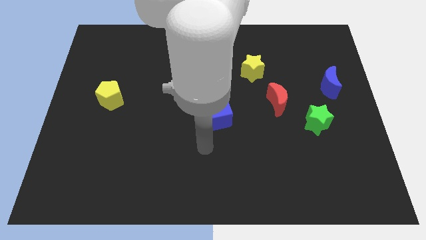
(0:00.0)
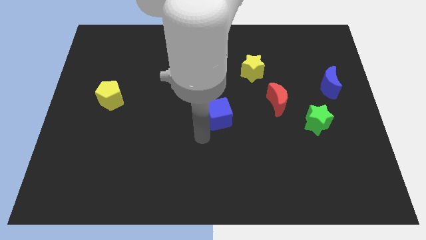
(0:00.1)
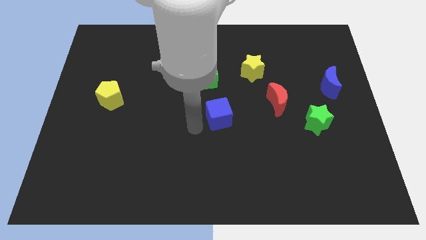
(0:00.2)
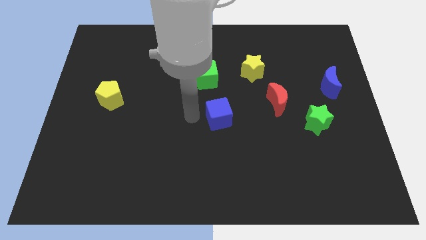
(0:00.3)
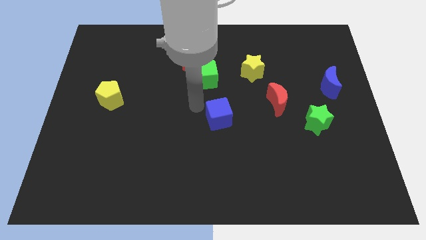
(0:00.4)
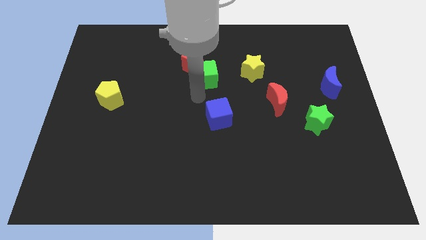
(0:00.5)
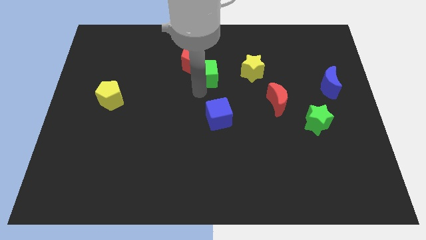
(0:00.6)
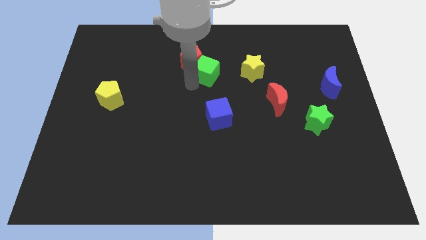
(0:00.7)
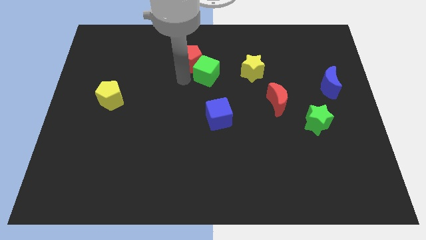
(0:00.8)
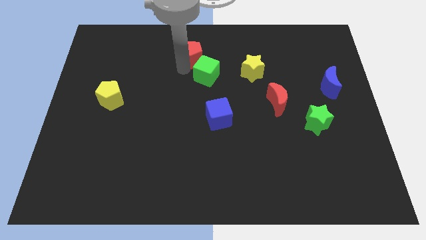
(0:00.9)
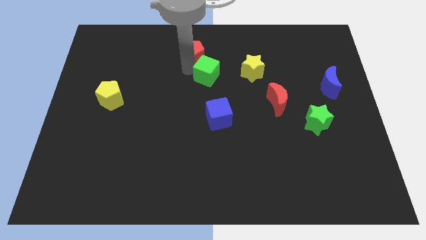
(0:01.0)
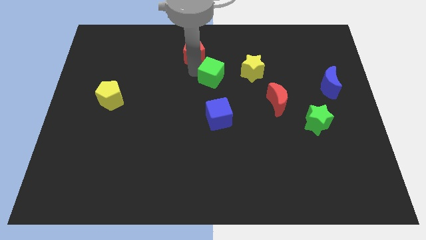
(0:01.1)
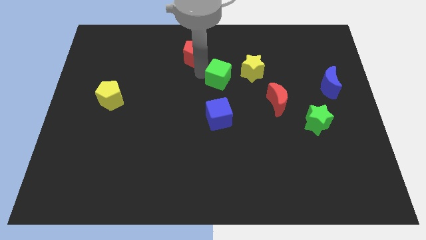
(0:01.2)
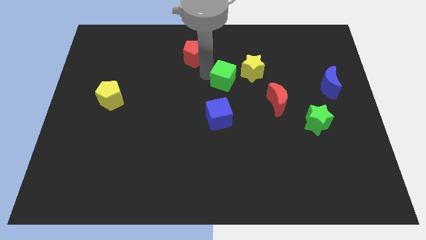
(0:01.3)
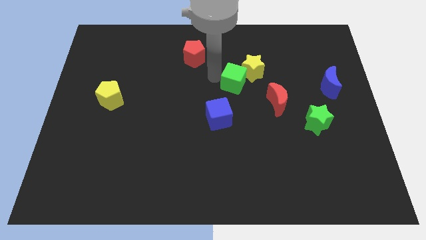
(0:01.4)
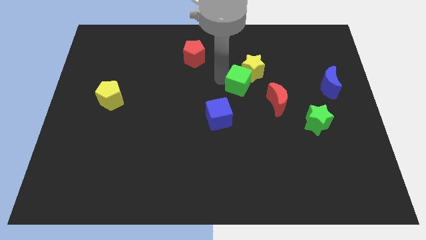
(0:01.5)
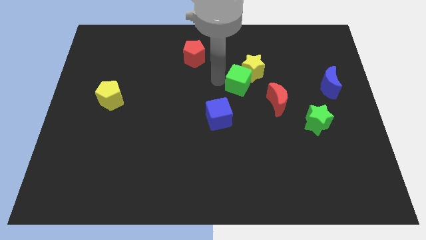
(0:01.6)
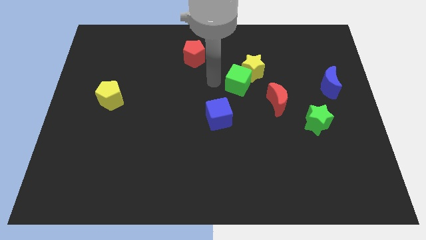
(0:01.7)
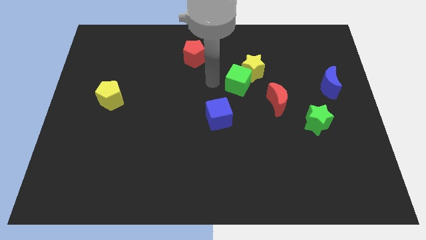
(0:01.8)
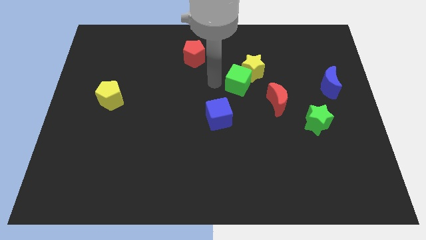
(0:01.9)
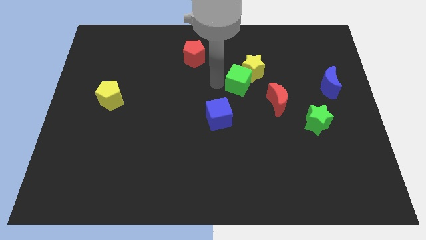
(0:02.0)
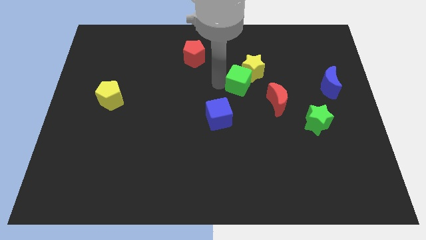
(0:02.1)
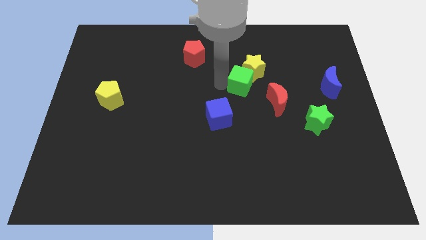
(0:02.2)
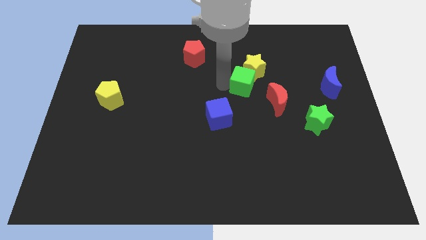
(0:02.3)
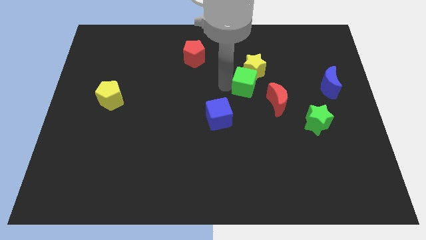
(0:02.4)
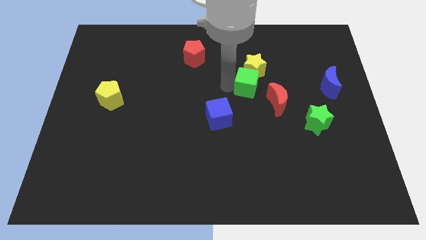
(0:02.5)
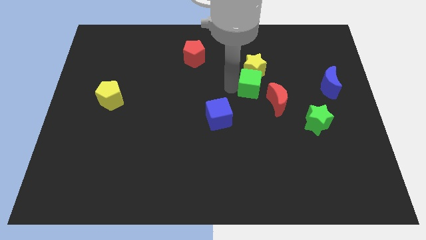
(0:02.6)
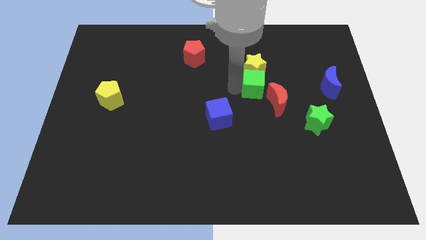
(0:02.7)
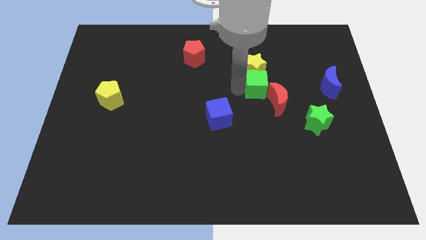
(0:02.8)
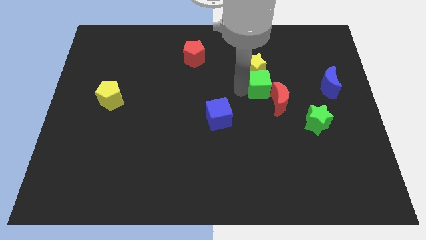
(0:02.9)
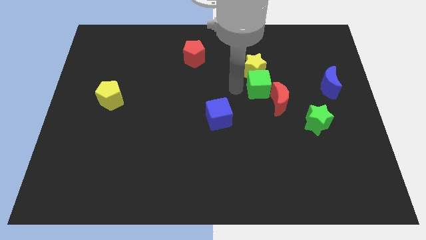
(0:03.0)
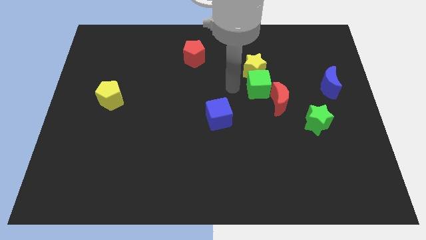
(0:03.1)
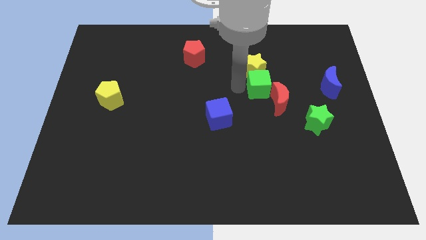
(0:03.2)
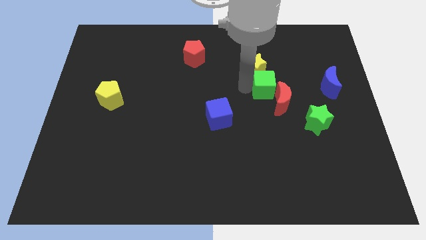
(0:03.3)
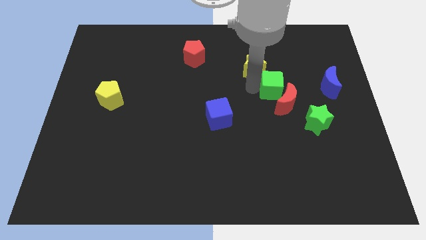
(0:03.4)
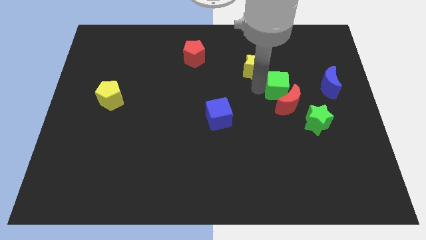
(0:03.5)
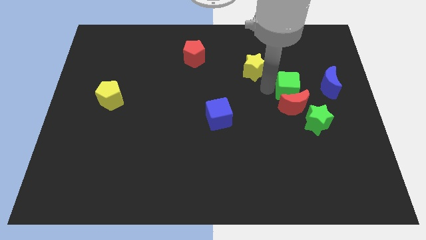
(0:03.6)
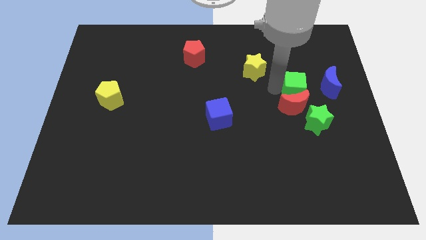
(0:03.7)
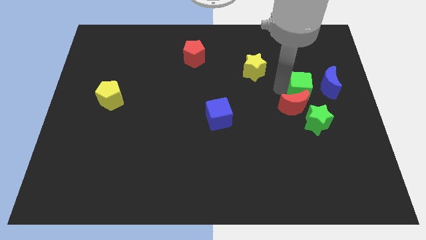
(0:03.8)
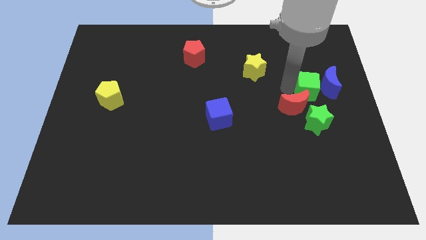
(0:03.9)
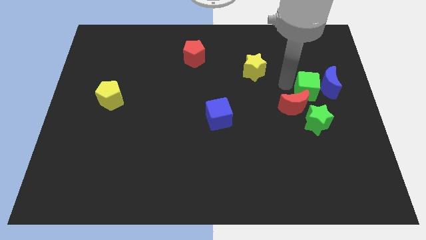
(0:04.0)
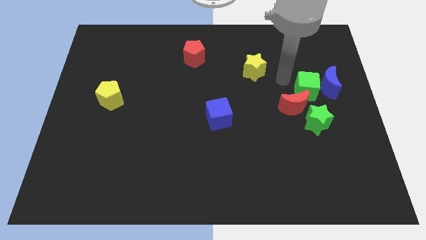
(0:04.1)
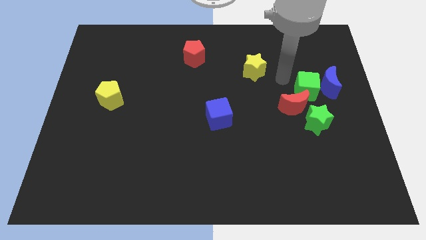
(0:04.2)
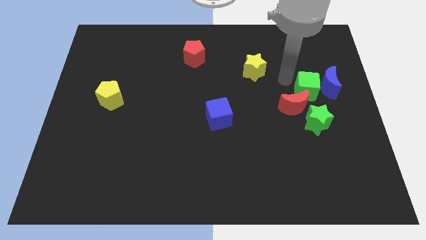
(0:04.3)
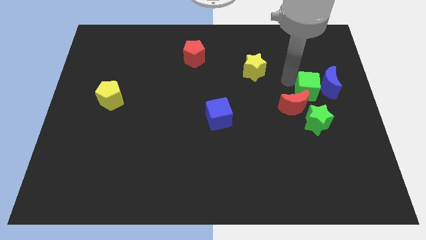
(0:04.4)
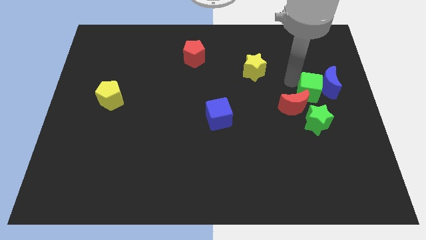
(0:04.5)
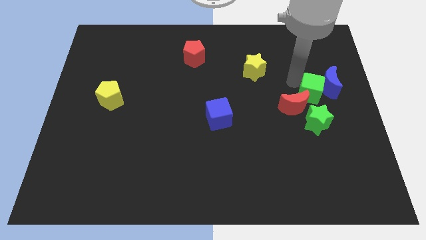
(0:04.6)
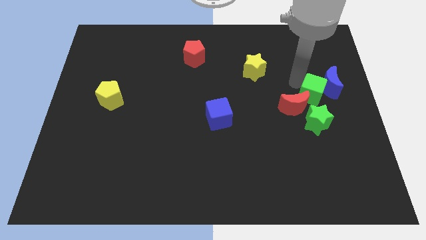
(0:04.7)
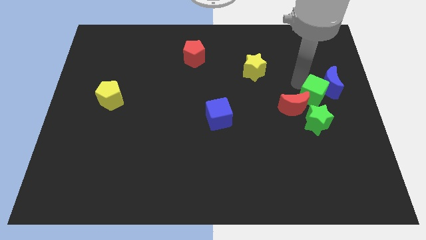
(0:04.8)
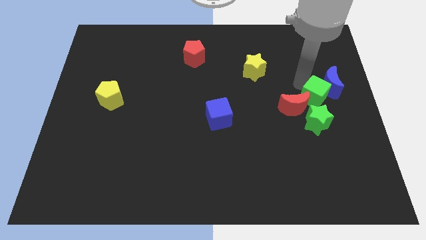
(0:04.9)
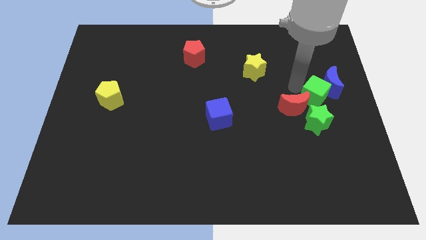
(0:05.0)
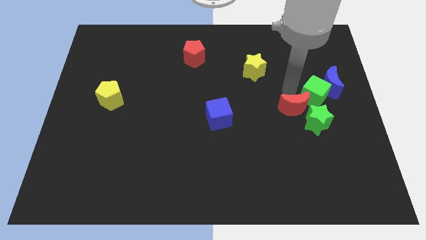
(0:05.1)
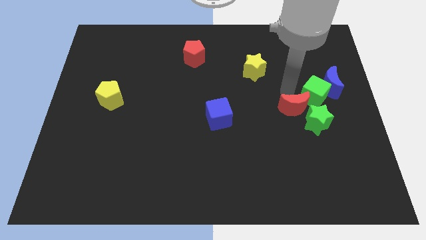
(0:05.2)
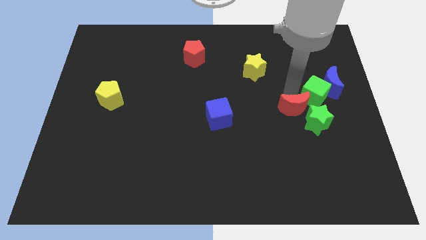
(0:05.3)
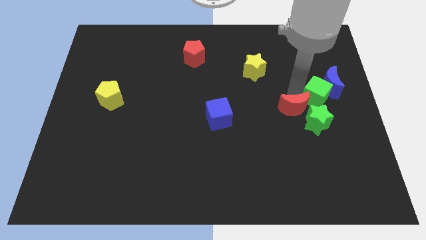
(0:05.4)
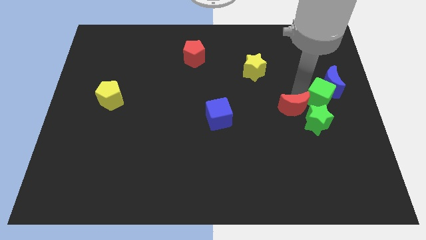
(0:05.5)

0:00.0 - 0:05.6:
slide the green cube to the right side
